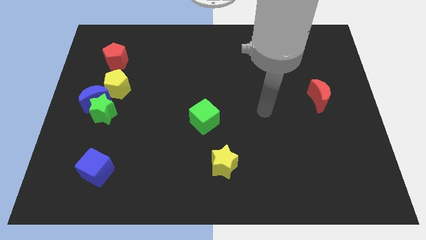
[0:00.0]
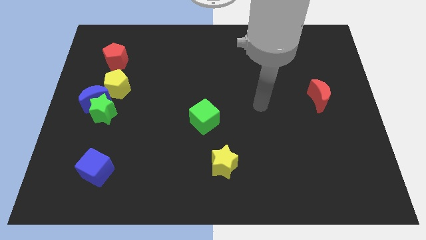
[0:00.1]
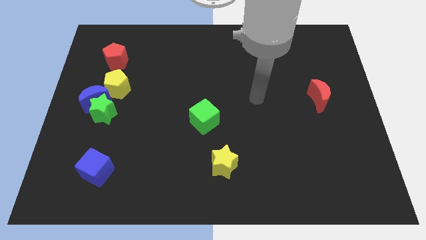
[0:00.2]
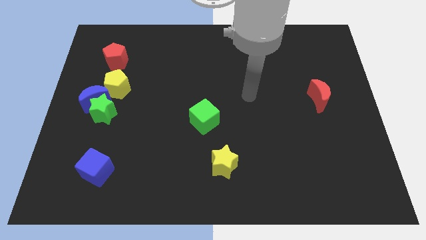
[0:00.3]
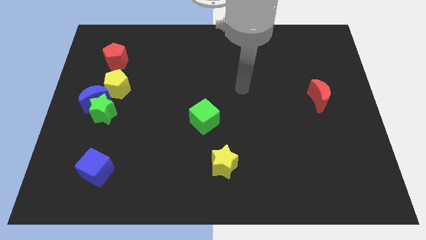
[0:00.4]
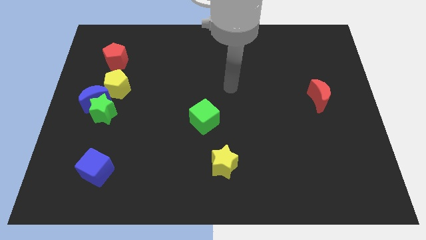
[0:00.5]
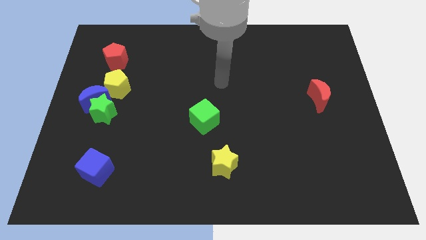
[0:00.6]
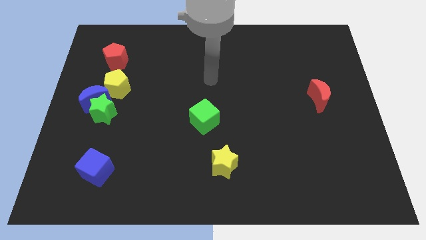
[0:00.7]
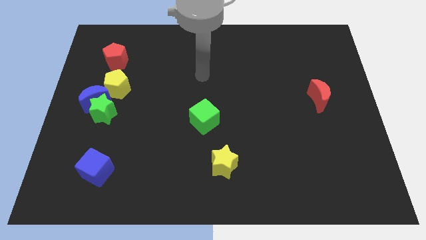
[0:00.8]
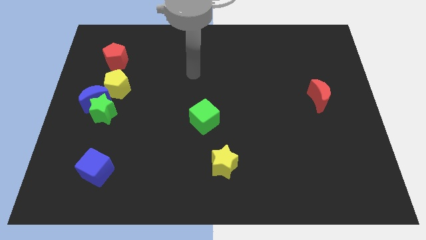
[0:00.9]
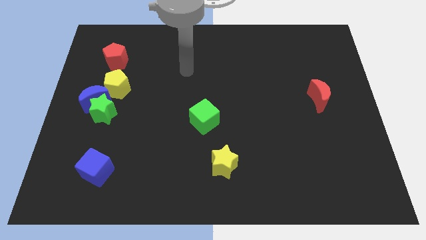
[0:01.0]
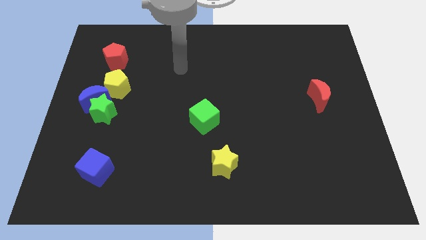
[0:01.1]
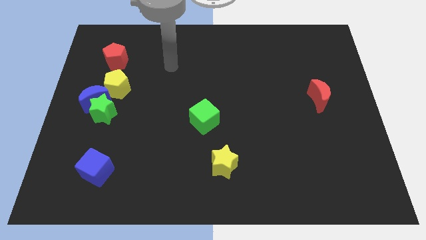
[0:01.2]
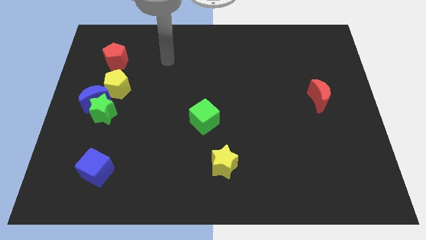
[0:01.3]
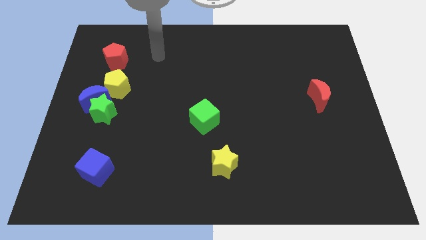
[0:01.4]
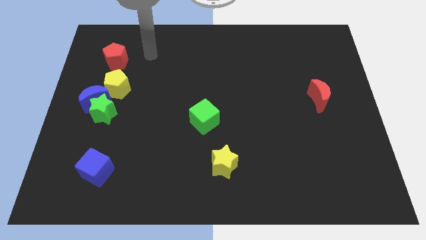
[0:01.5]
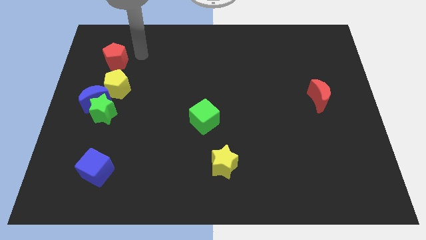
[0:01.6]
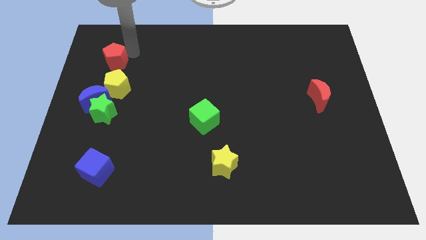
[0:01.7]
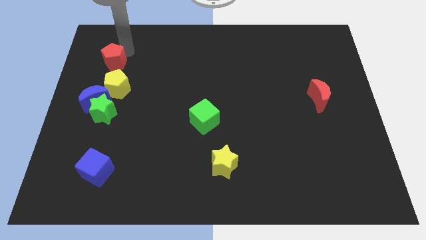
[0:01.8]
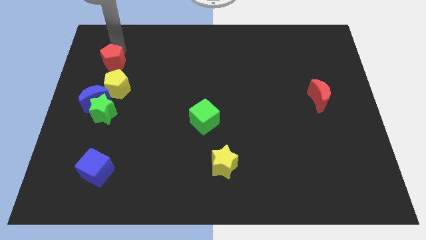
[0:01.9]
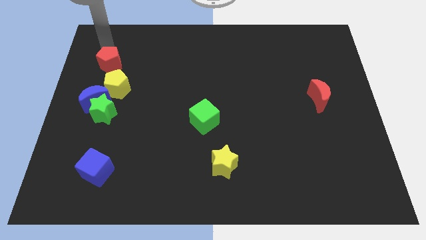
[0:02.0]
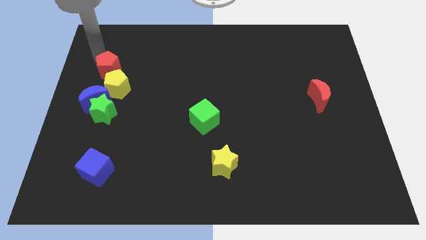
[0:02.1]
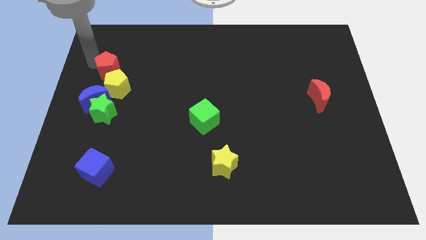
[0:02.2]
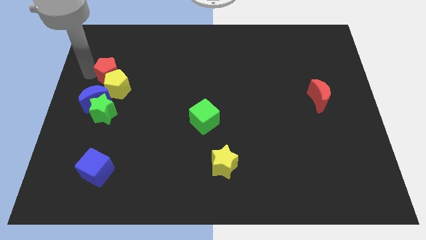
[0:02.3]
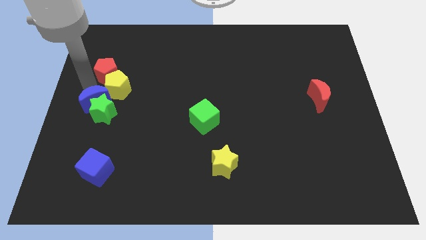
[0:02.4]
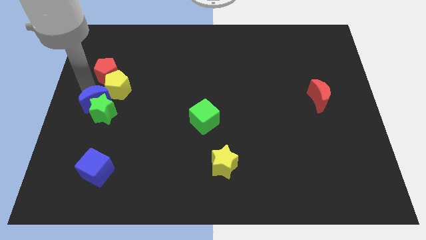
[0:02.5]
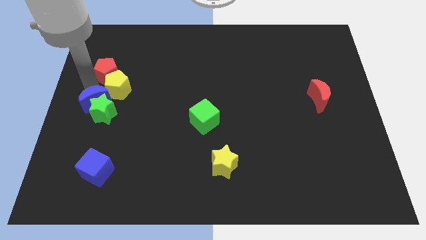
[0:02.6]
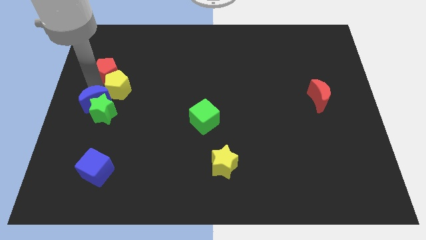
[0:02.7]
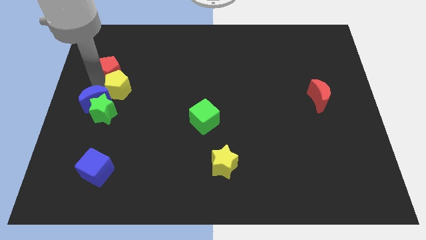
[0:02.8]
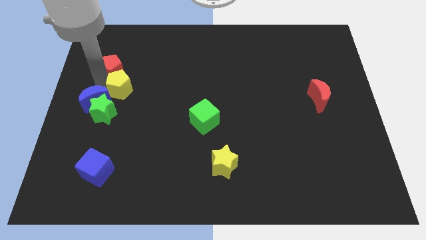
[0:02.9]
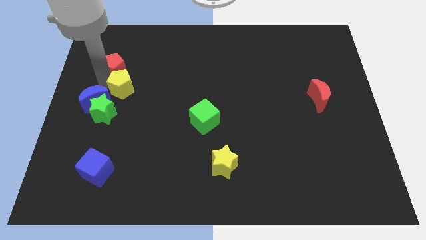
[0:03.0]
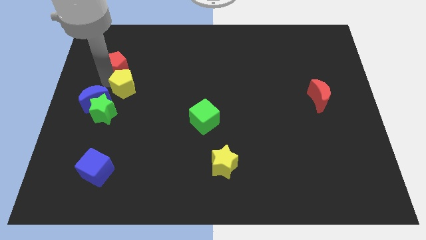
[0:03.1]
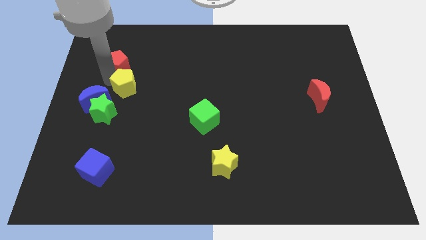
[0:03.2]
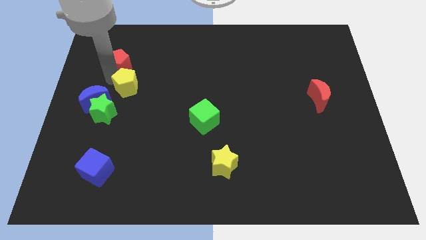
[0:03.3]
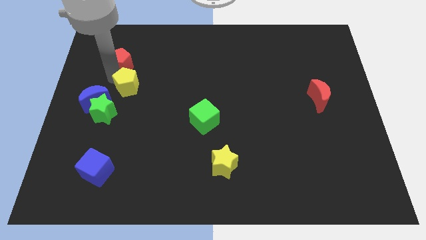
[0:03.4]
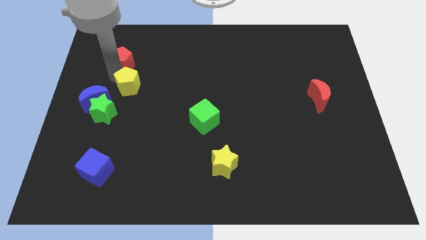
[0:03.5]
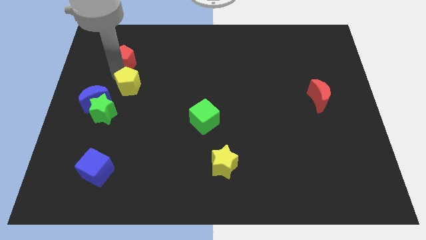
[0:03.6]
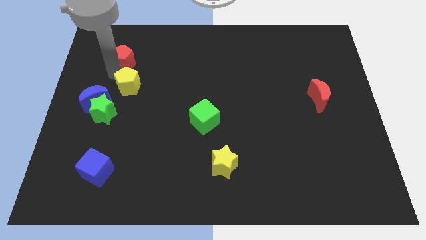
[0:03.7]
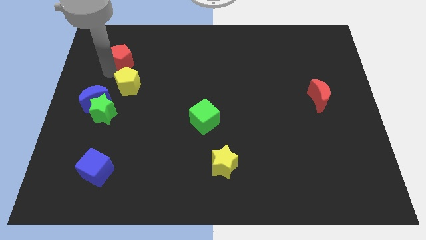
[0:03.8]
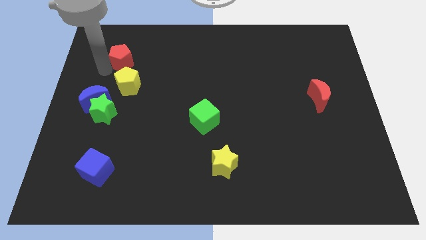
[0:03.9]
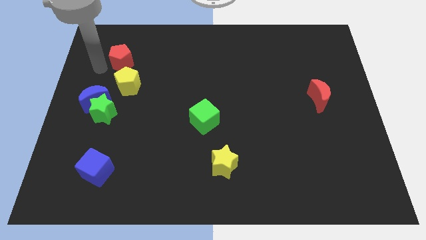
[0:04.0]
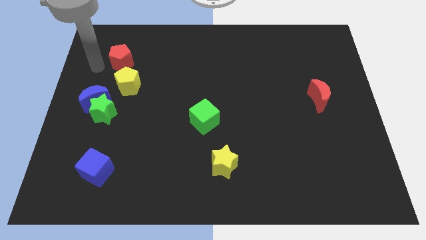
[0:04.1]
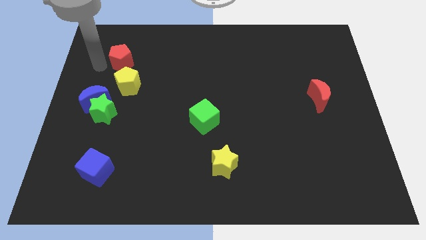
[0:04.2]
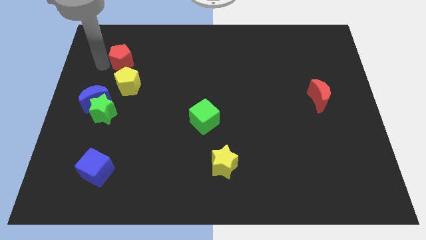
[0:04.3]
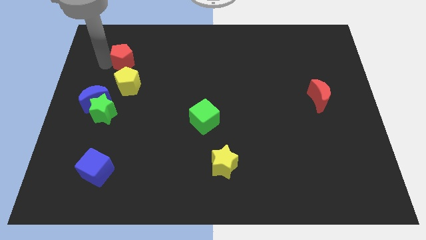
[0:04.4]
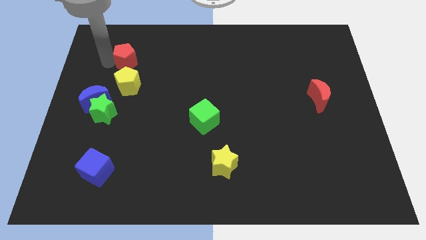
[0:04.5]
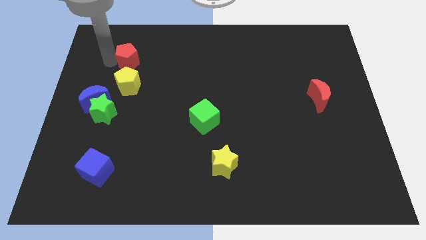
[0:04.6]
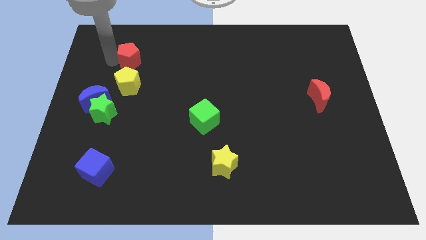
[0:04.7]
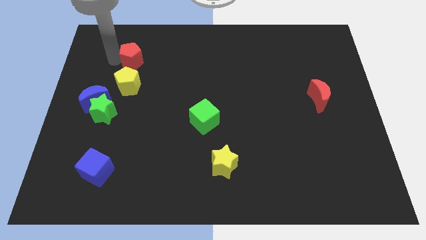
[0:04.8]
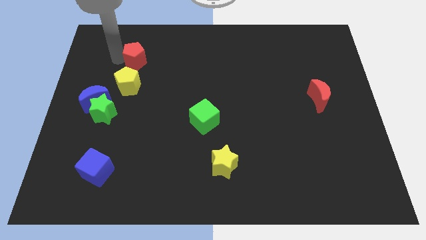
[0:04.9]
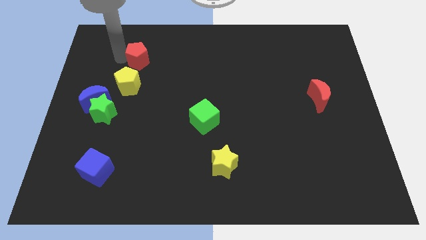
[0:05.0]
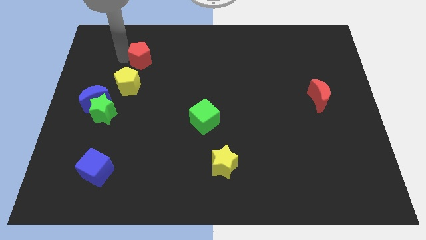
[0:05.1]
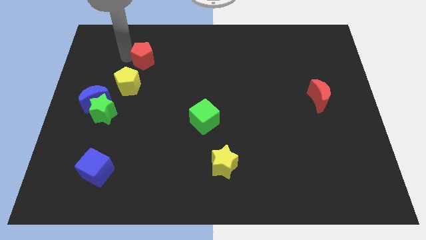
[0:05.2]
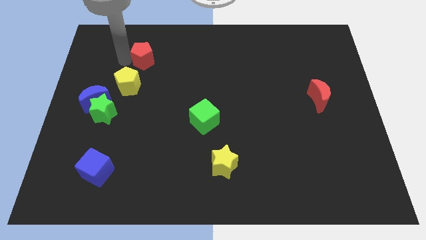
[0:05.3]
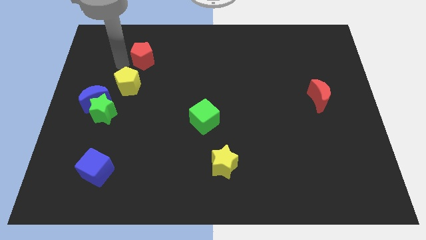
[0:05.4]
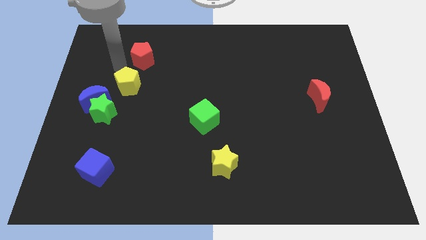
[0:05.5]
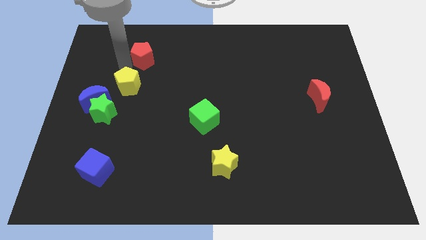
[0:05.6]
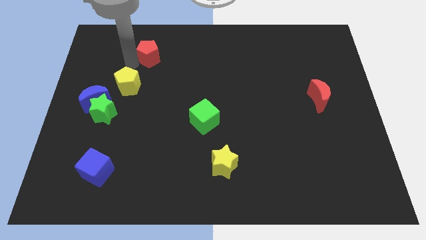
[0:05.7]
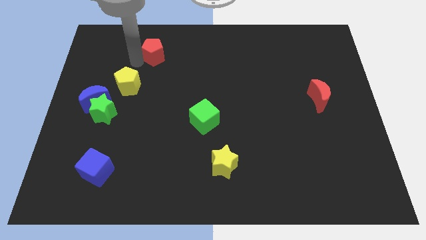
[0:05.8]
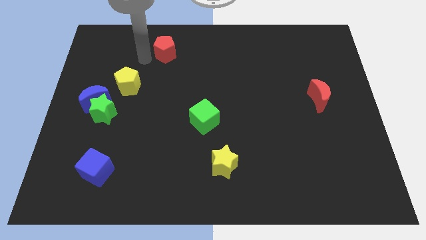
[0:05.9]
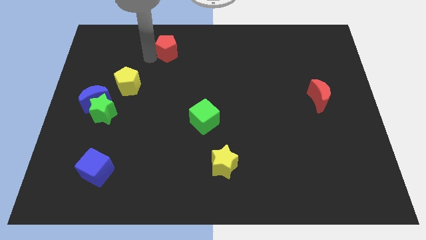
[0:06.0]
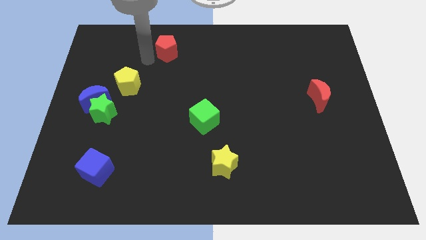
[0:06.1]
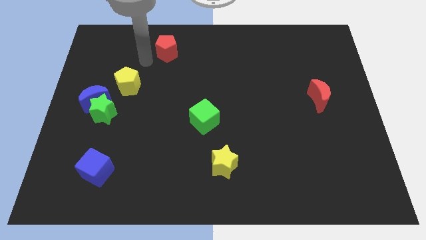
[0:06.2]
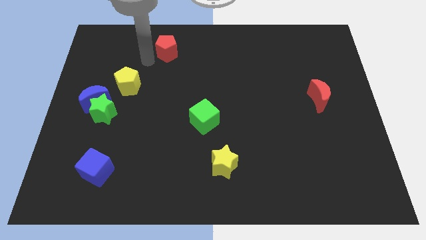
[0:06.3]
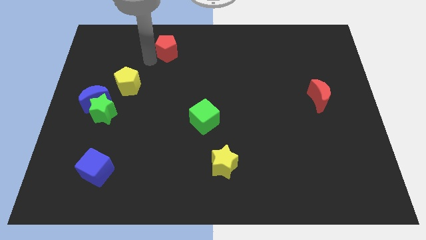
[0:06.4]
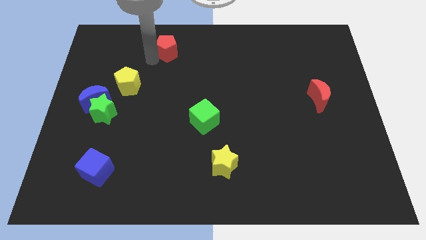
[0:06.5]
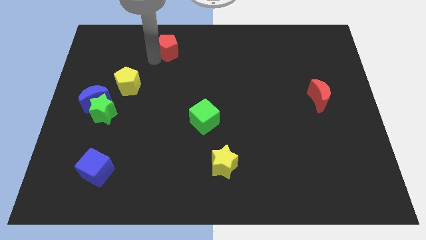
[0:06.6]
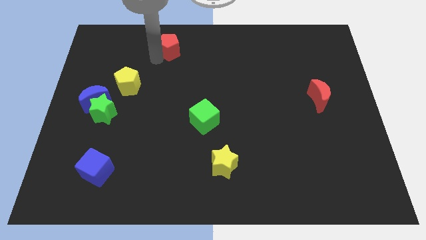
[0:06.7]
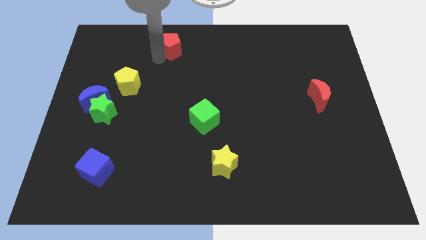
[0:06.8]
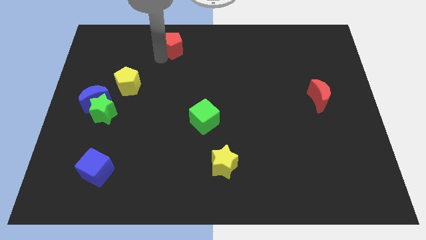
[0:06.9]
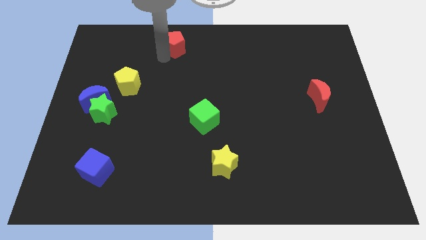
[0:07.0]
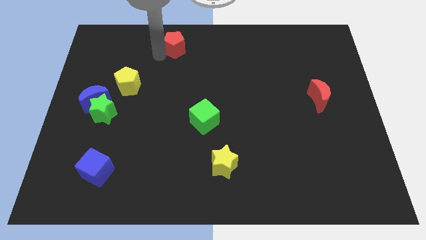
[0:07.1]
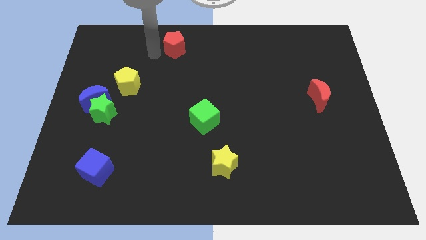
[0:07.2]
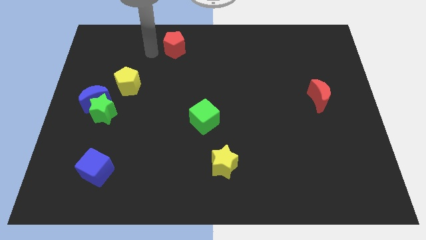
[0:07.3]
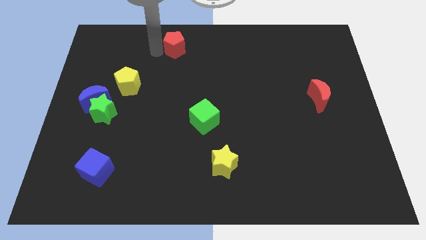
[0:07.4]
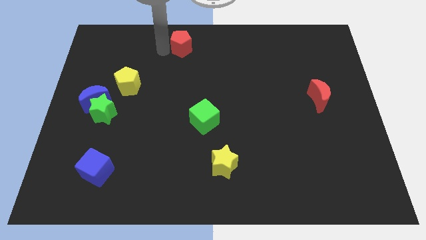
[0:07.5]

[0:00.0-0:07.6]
push the red pentagon to the top
